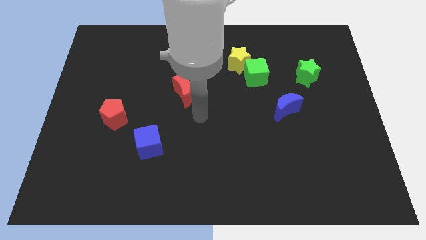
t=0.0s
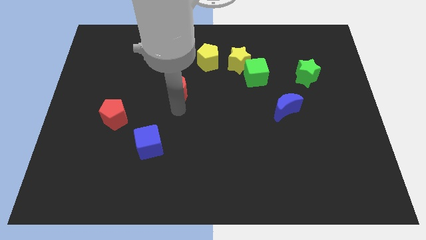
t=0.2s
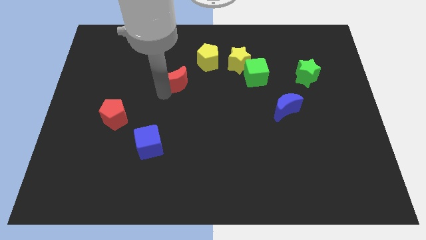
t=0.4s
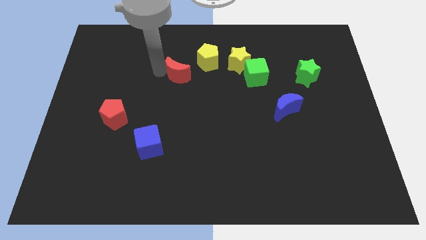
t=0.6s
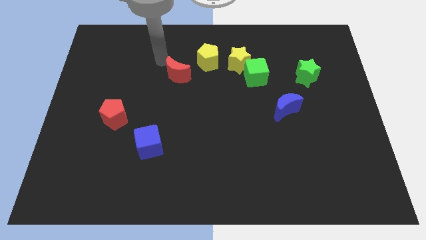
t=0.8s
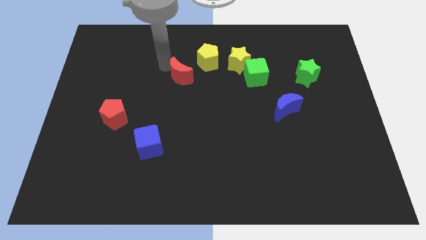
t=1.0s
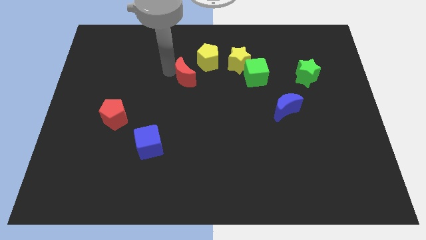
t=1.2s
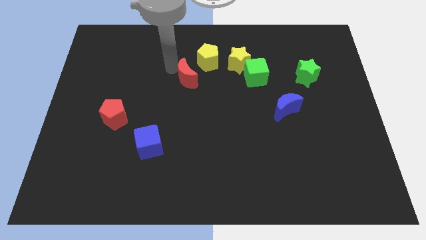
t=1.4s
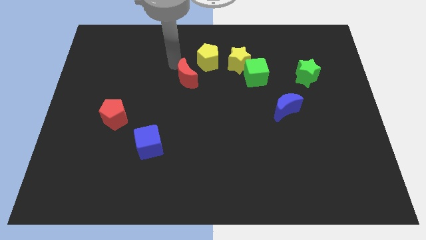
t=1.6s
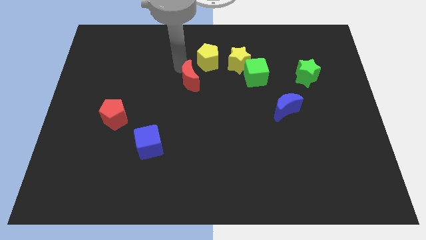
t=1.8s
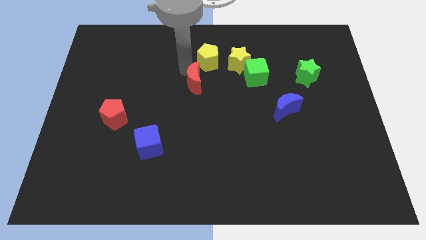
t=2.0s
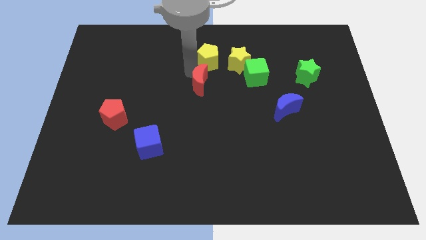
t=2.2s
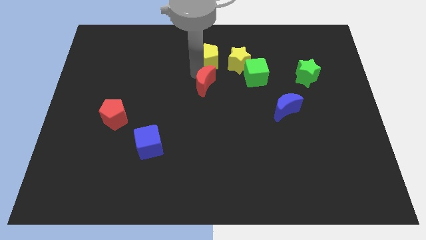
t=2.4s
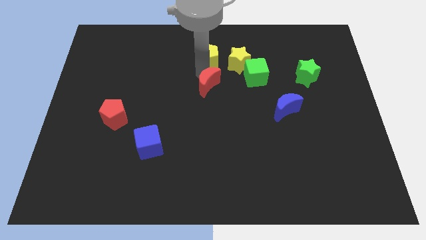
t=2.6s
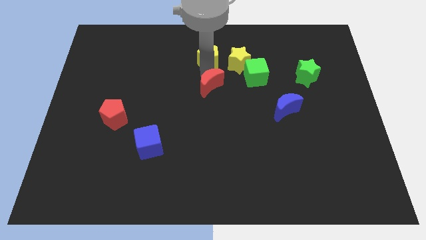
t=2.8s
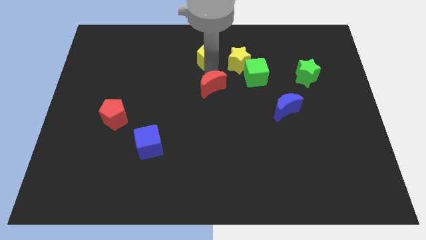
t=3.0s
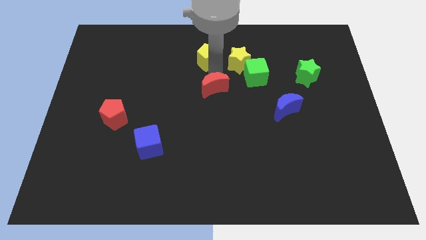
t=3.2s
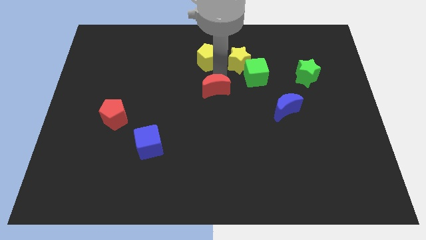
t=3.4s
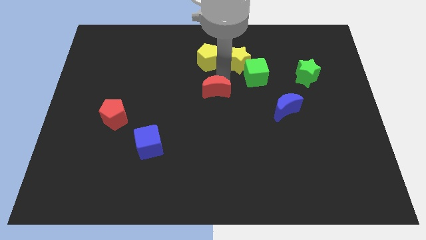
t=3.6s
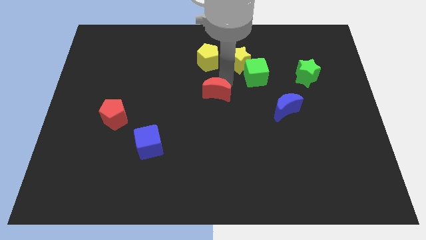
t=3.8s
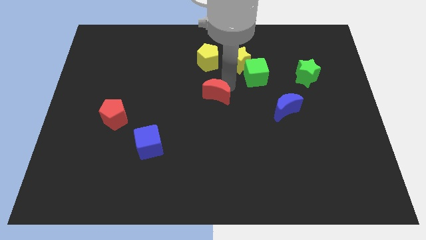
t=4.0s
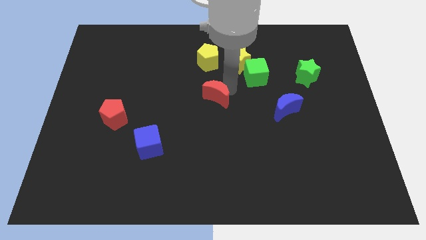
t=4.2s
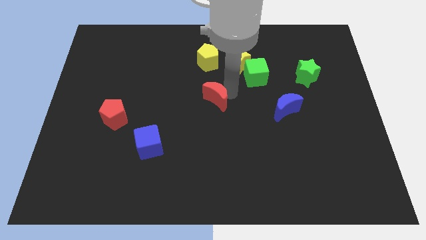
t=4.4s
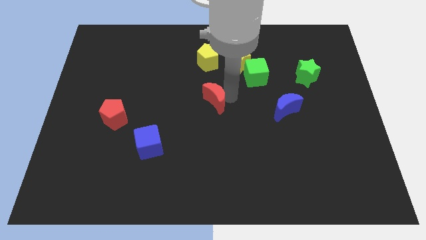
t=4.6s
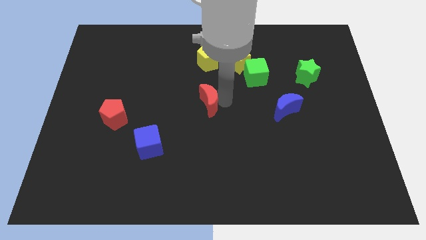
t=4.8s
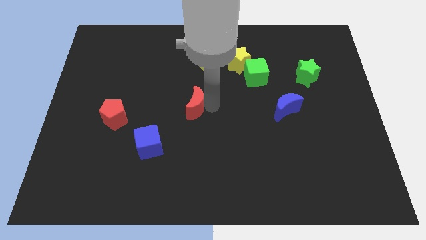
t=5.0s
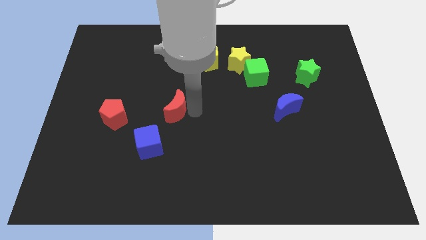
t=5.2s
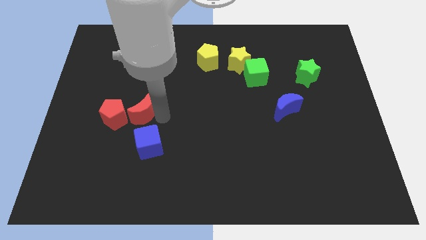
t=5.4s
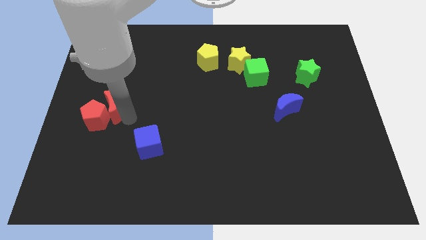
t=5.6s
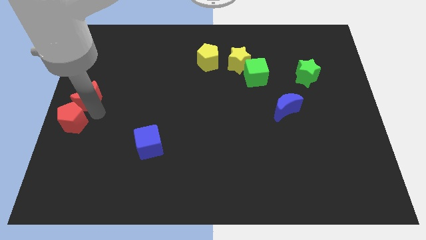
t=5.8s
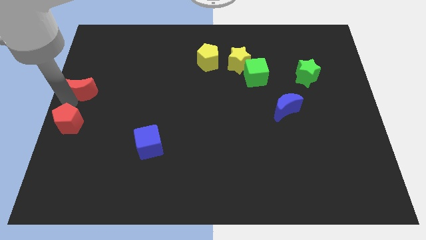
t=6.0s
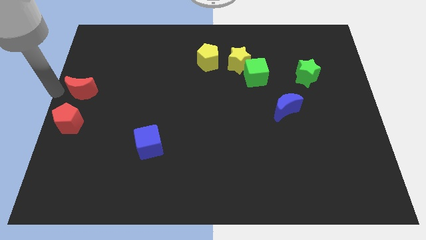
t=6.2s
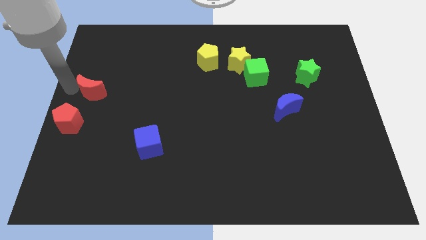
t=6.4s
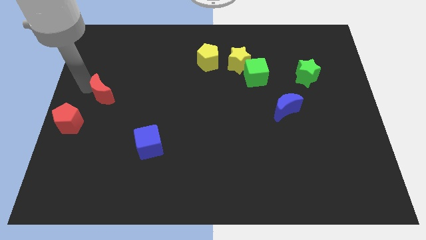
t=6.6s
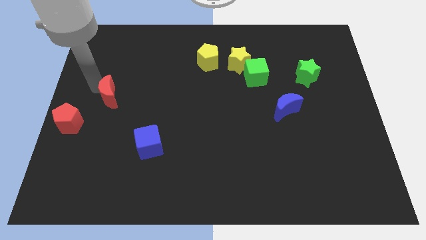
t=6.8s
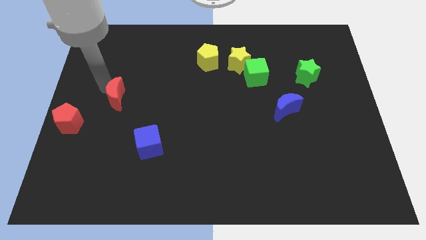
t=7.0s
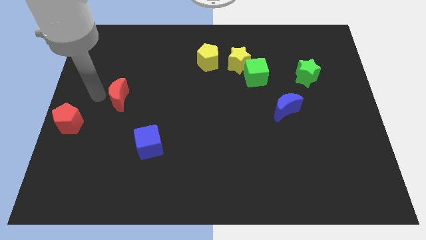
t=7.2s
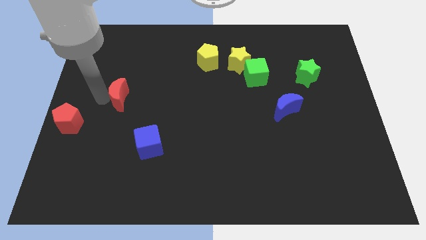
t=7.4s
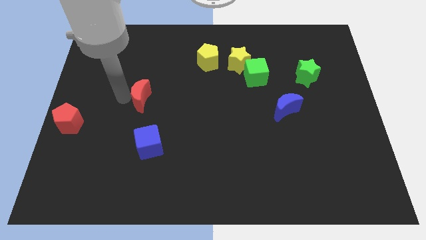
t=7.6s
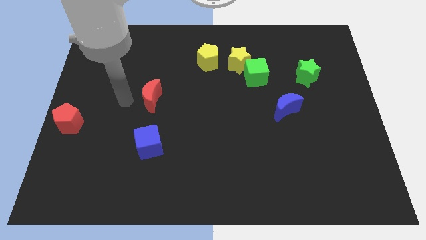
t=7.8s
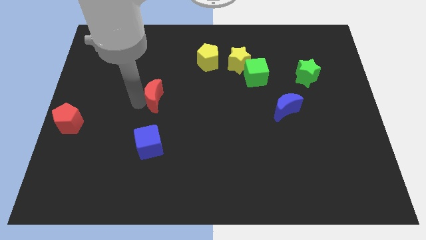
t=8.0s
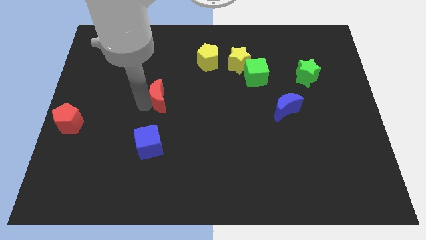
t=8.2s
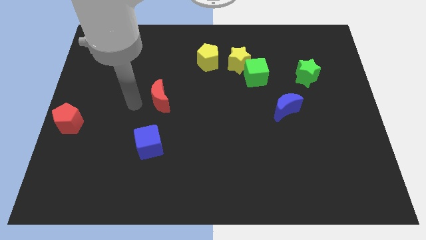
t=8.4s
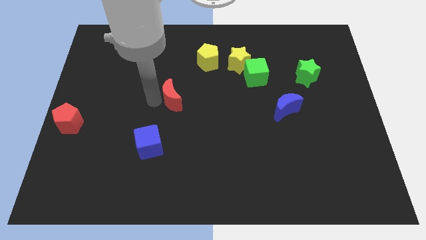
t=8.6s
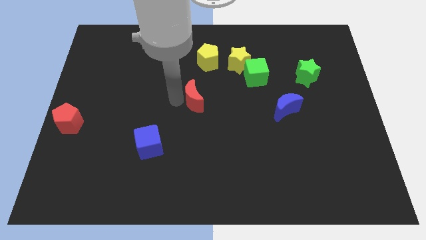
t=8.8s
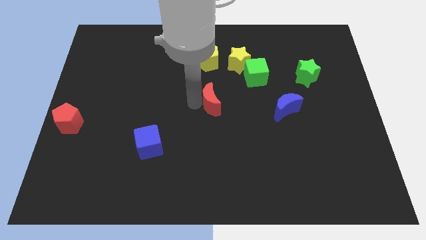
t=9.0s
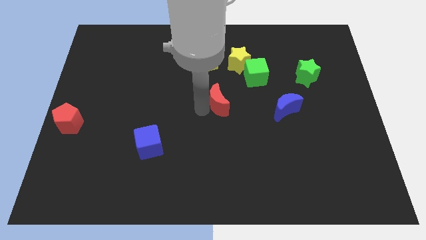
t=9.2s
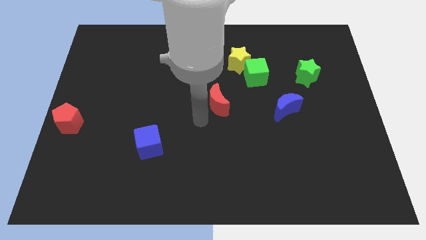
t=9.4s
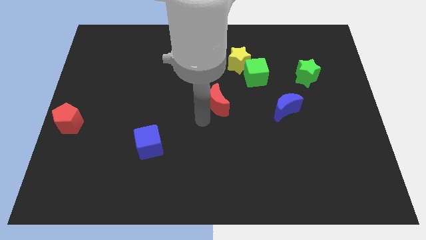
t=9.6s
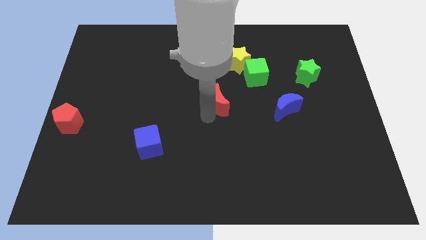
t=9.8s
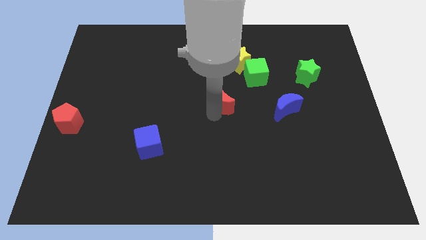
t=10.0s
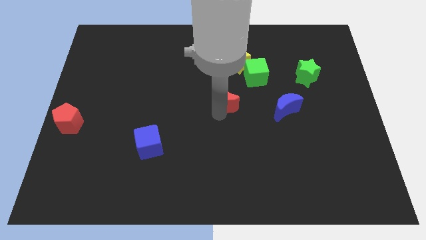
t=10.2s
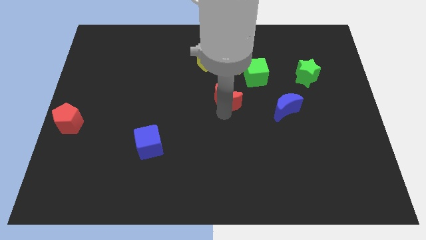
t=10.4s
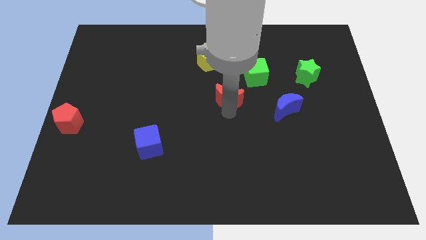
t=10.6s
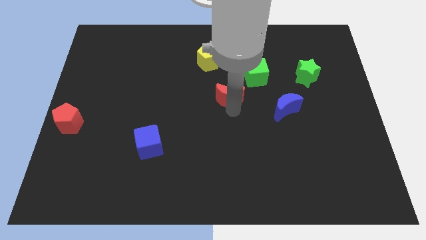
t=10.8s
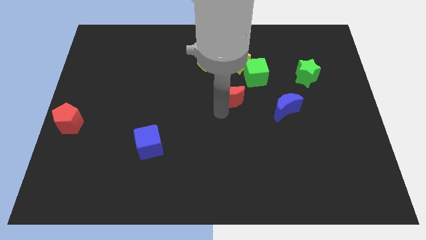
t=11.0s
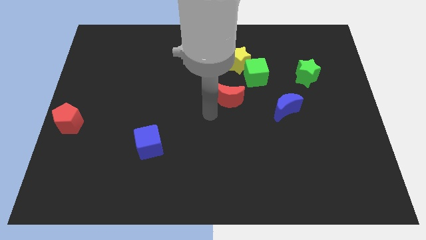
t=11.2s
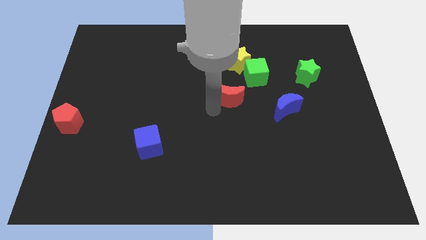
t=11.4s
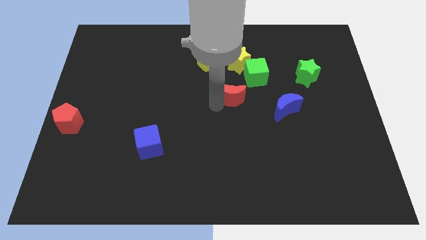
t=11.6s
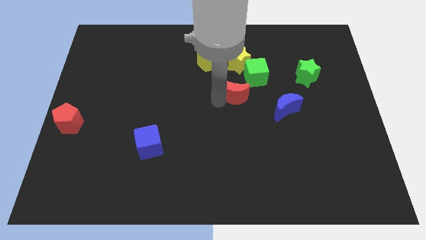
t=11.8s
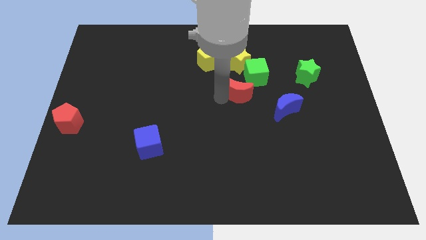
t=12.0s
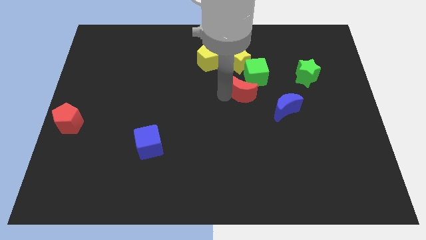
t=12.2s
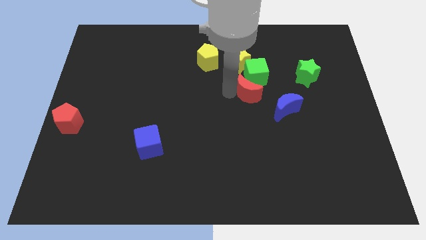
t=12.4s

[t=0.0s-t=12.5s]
move the red moon to the green cube

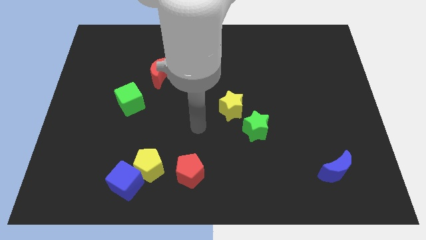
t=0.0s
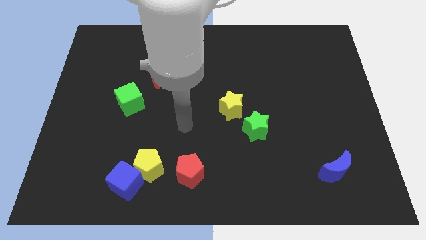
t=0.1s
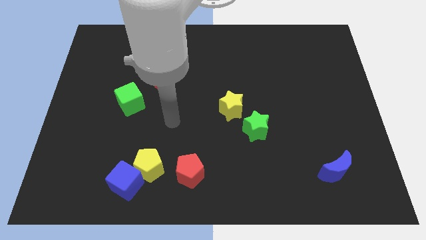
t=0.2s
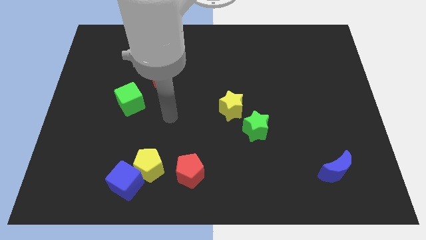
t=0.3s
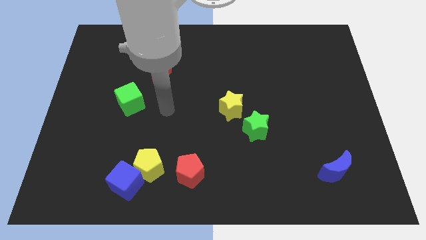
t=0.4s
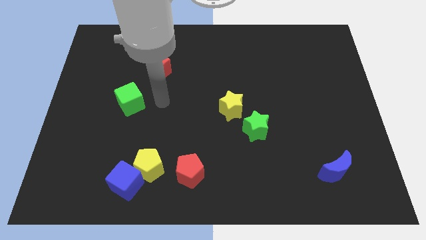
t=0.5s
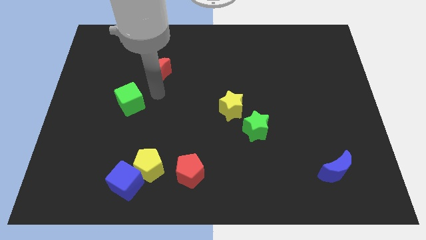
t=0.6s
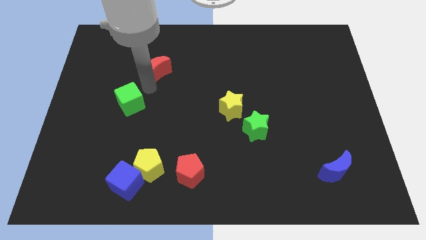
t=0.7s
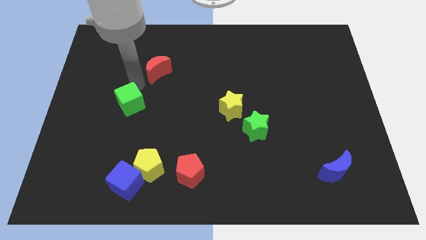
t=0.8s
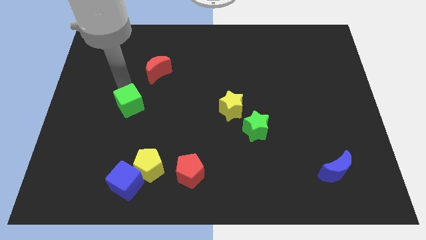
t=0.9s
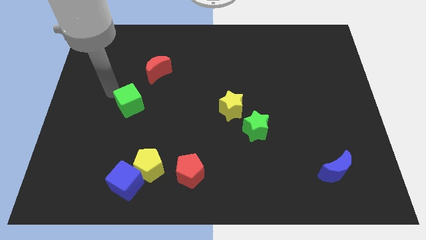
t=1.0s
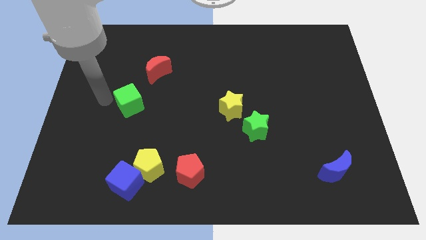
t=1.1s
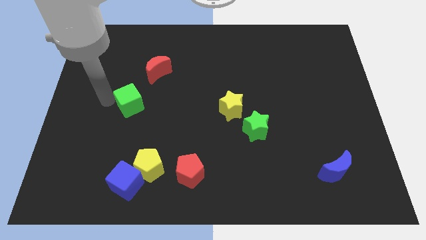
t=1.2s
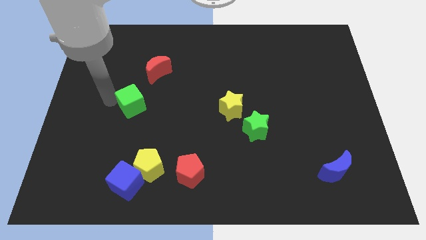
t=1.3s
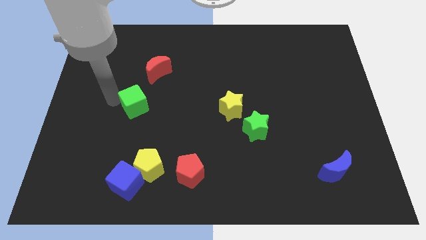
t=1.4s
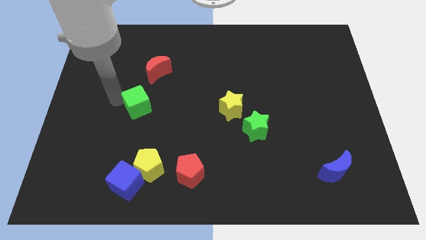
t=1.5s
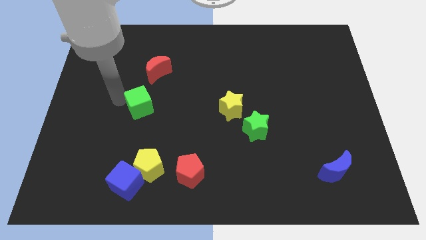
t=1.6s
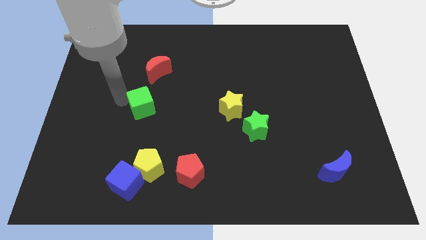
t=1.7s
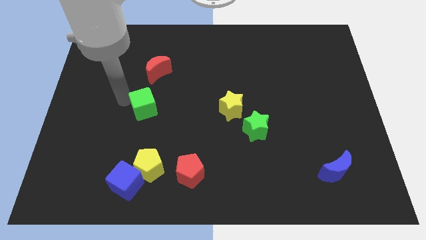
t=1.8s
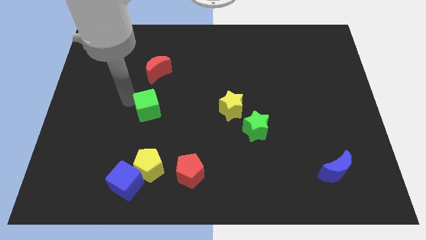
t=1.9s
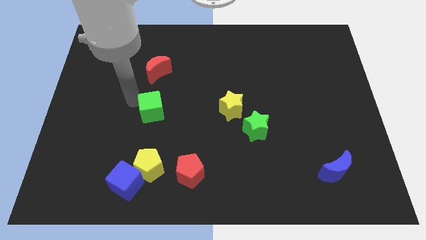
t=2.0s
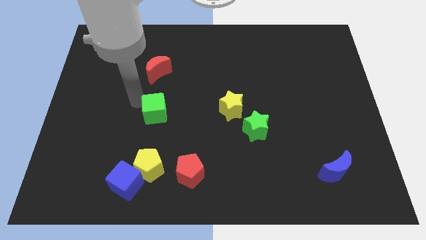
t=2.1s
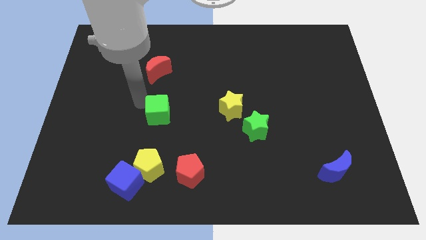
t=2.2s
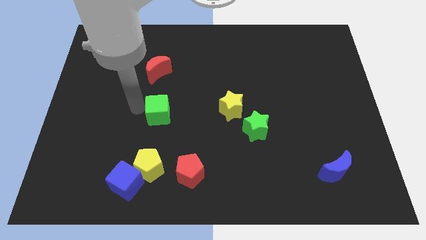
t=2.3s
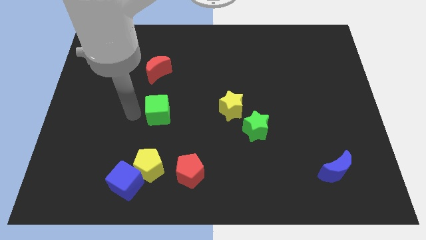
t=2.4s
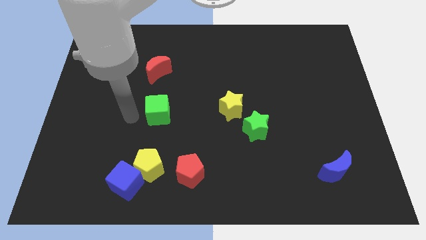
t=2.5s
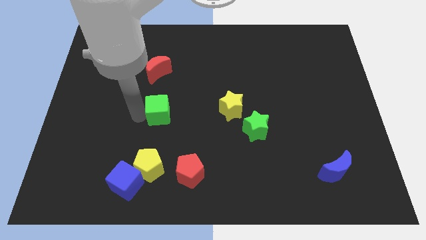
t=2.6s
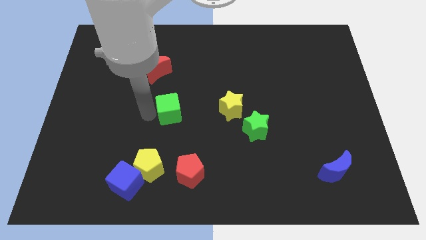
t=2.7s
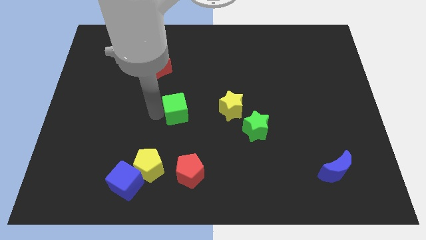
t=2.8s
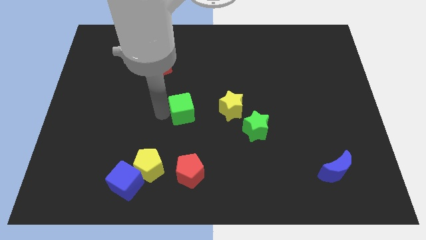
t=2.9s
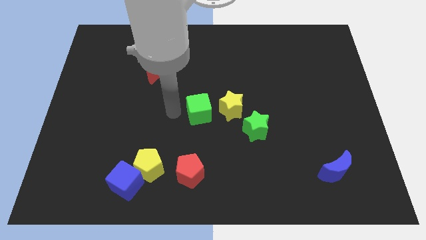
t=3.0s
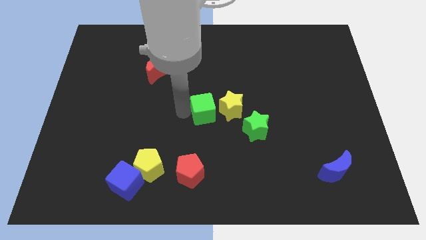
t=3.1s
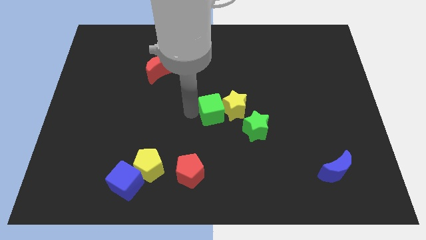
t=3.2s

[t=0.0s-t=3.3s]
slide the green cube to the yellow star
